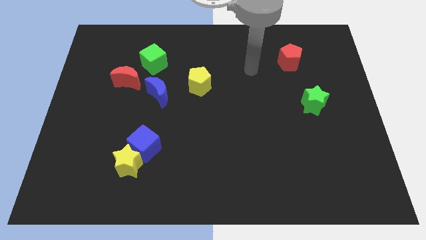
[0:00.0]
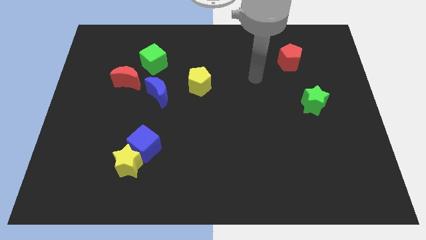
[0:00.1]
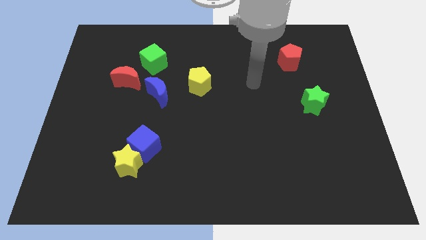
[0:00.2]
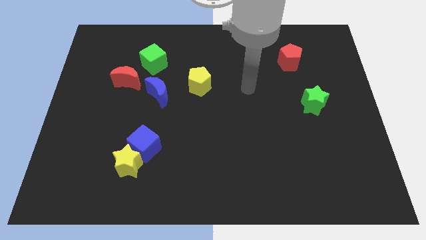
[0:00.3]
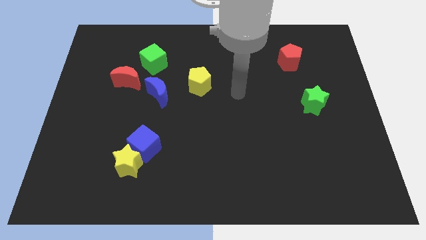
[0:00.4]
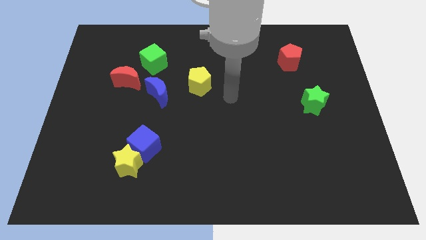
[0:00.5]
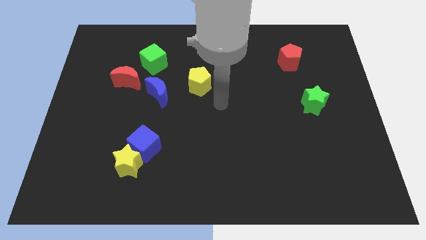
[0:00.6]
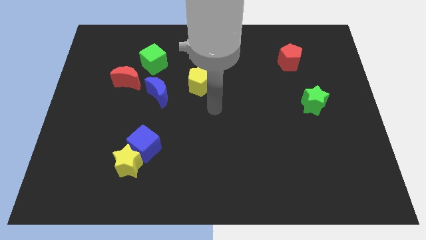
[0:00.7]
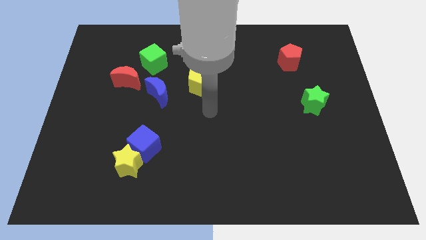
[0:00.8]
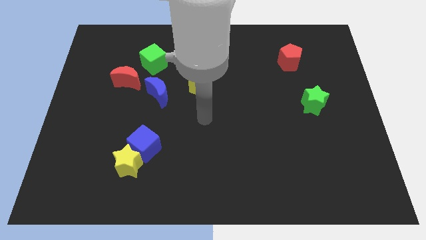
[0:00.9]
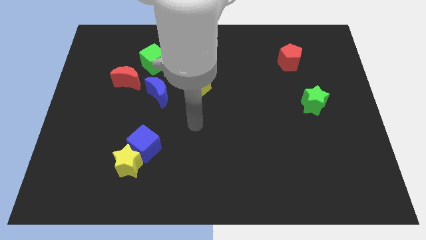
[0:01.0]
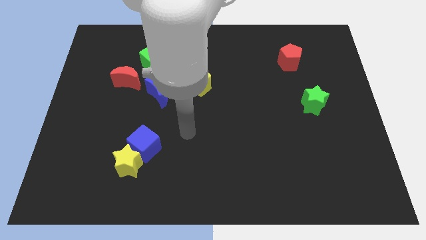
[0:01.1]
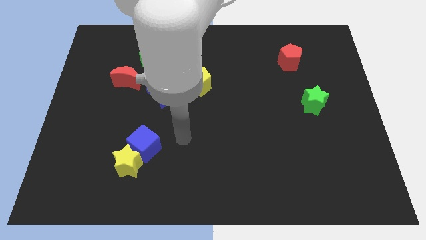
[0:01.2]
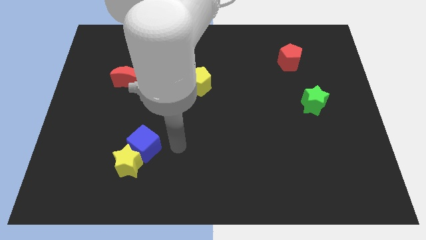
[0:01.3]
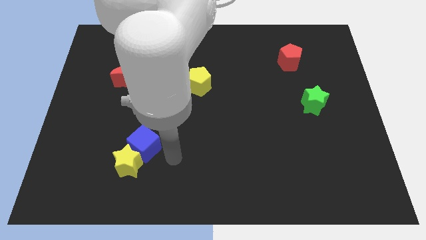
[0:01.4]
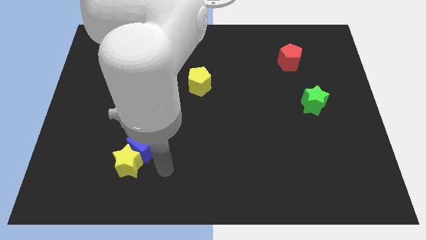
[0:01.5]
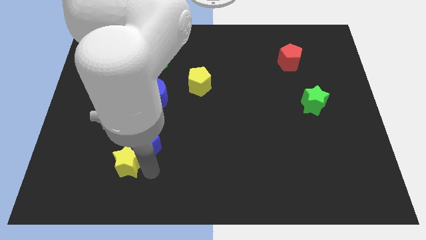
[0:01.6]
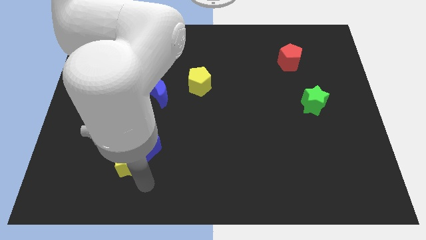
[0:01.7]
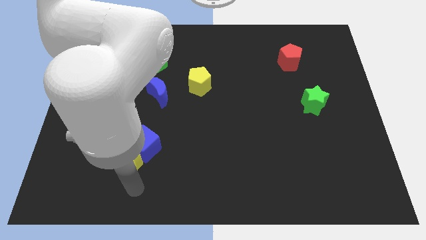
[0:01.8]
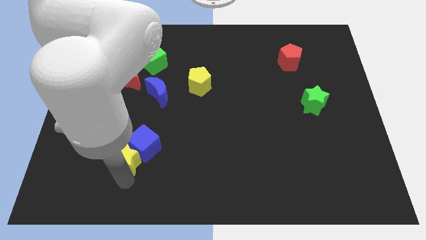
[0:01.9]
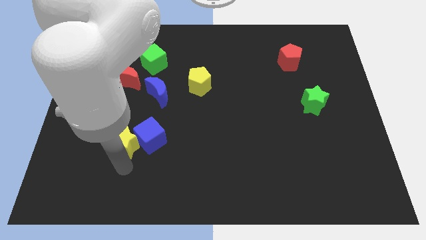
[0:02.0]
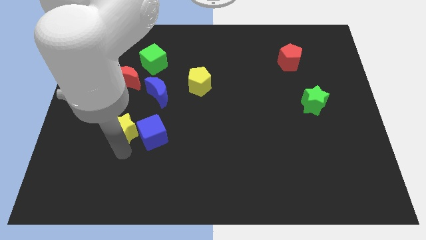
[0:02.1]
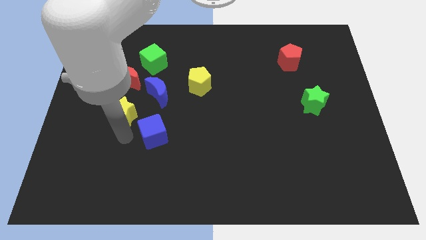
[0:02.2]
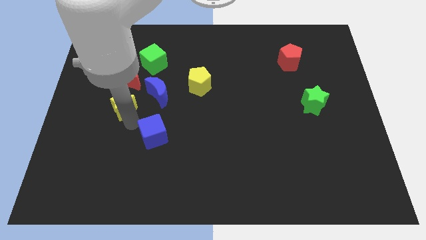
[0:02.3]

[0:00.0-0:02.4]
pull the blue cube apart from the yellow star

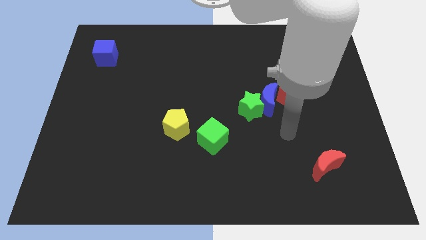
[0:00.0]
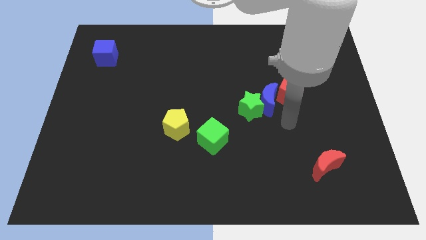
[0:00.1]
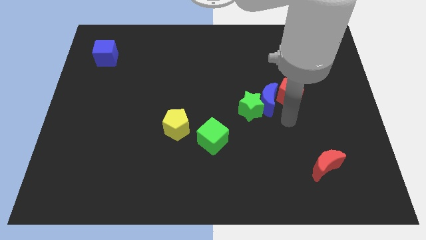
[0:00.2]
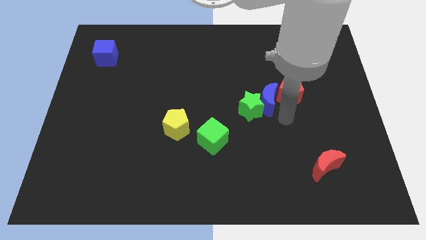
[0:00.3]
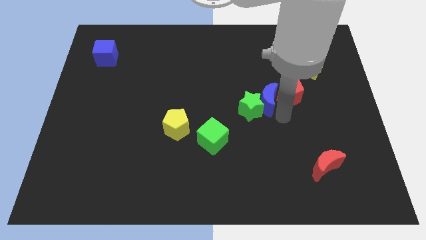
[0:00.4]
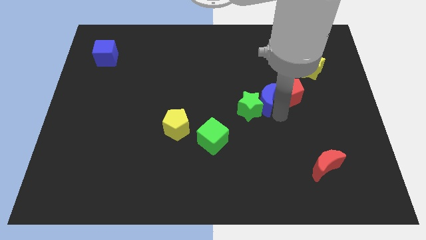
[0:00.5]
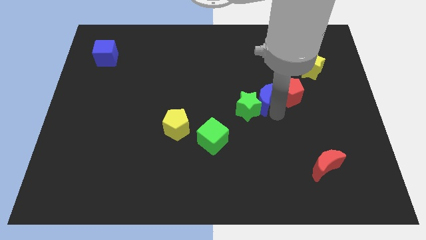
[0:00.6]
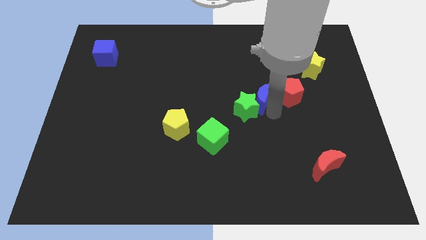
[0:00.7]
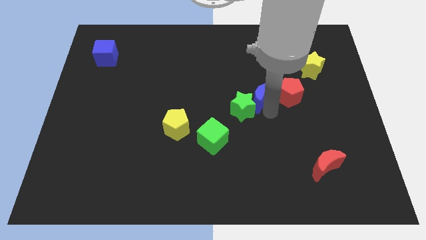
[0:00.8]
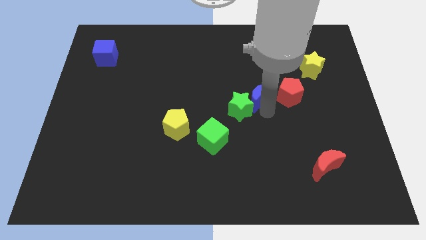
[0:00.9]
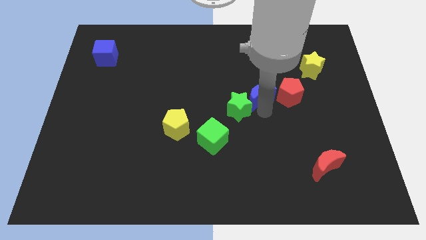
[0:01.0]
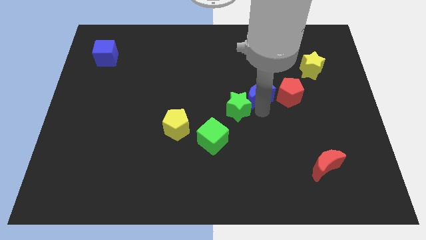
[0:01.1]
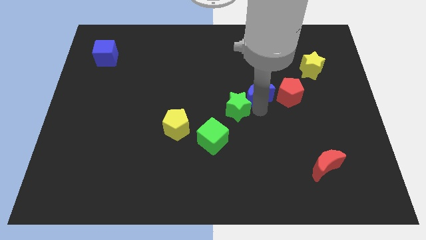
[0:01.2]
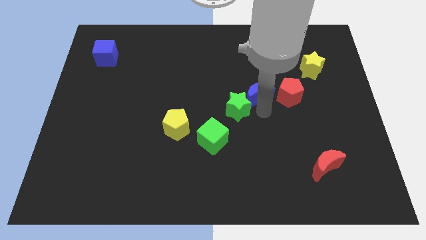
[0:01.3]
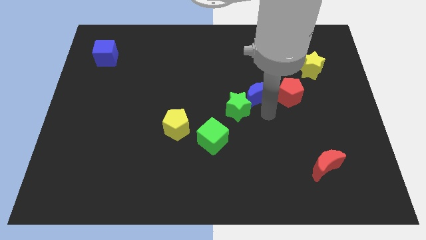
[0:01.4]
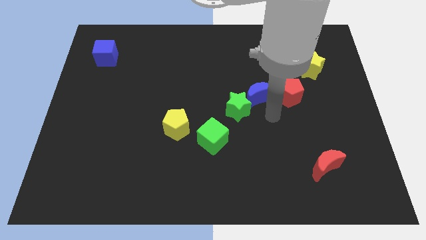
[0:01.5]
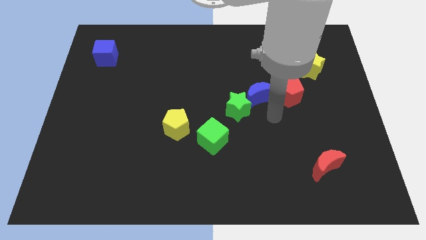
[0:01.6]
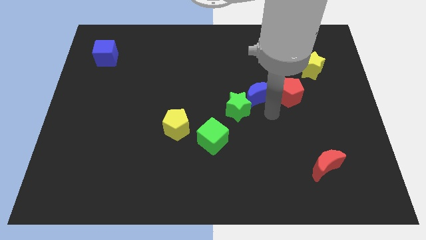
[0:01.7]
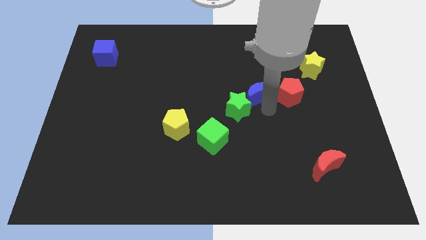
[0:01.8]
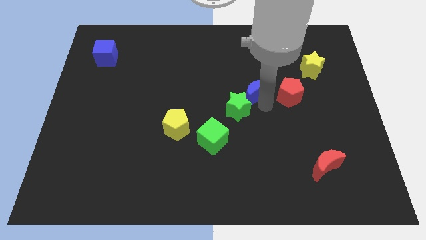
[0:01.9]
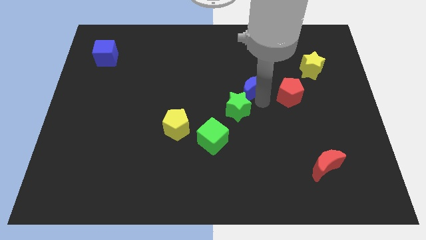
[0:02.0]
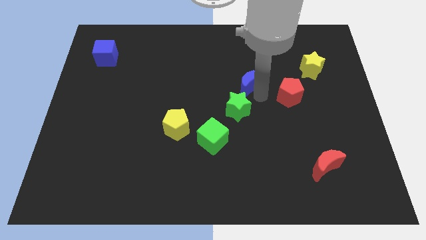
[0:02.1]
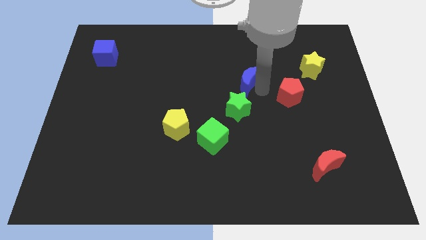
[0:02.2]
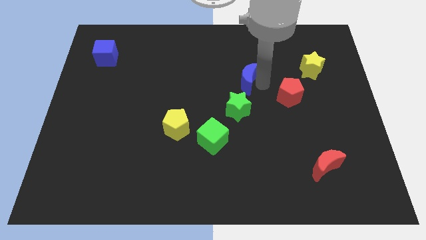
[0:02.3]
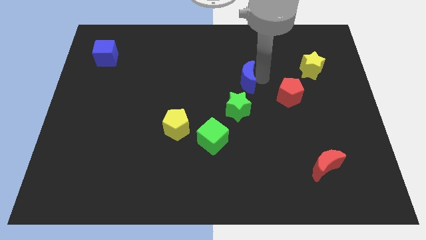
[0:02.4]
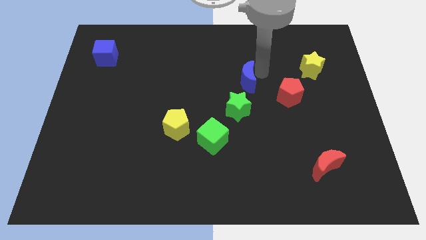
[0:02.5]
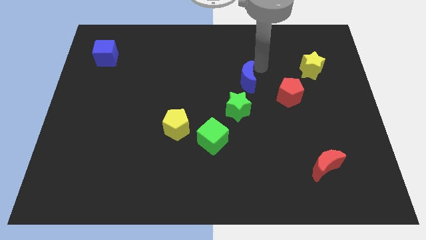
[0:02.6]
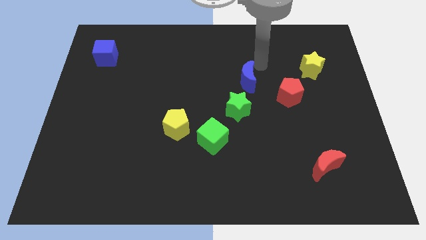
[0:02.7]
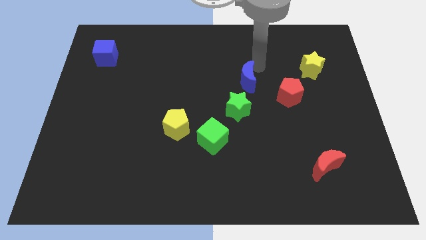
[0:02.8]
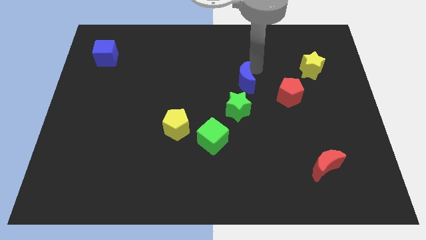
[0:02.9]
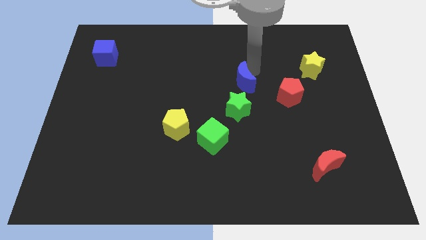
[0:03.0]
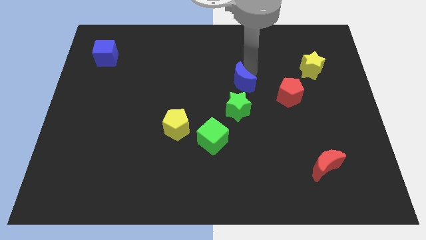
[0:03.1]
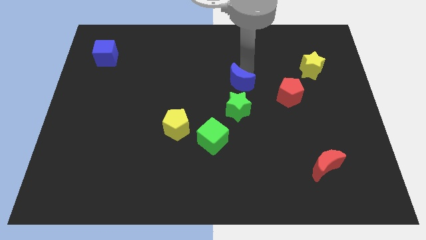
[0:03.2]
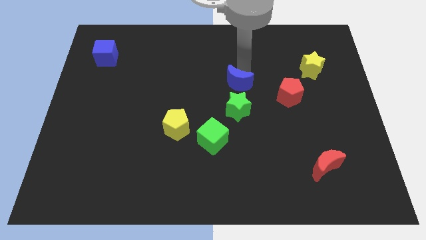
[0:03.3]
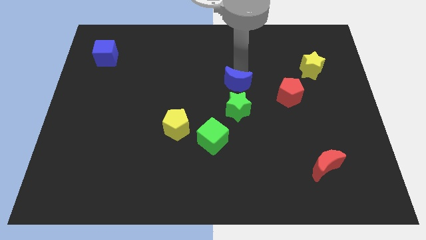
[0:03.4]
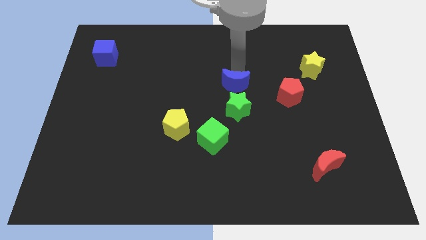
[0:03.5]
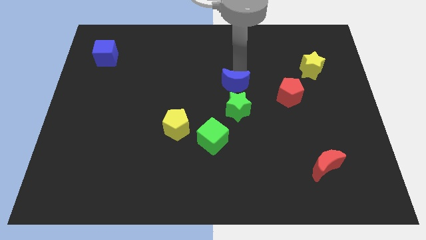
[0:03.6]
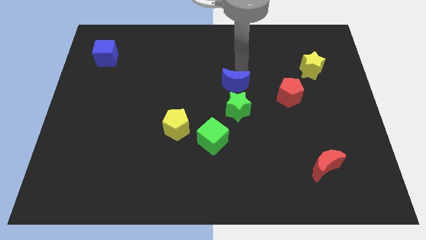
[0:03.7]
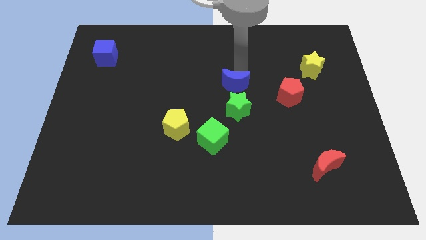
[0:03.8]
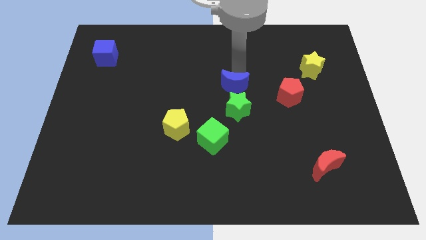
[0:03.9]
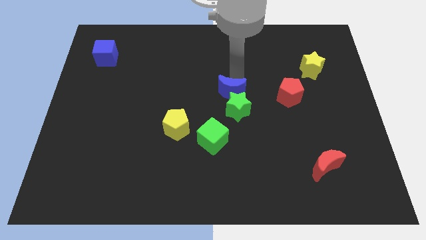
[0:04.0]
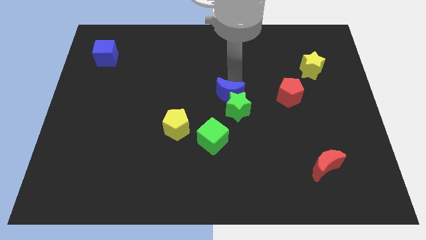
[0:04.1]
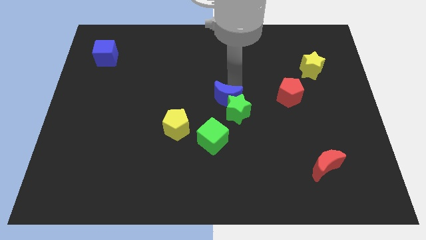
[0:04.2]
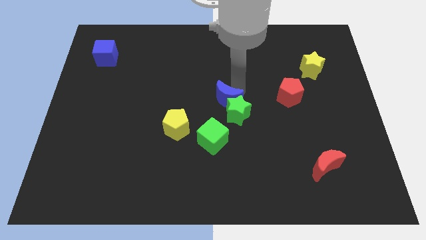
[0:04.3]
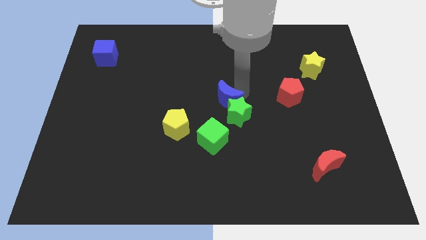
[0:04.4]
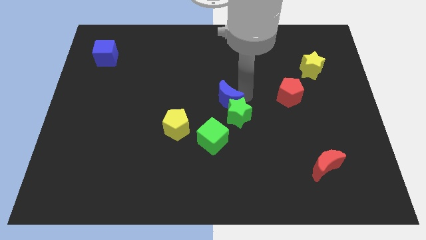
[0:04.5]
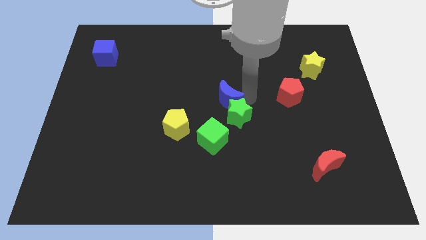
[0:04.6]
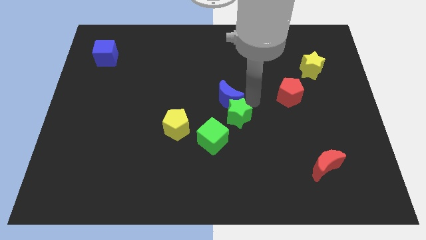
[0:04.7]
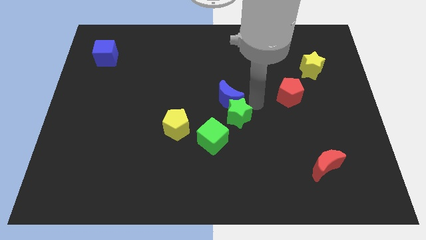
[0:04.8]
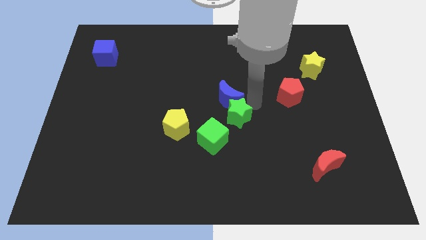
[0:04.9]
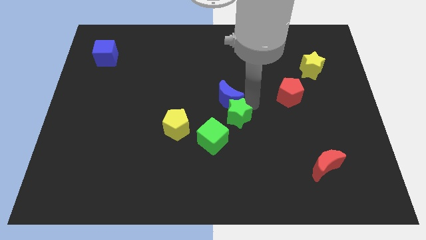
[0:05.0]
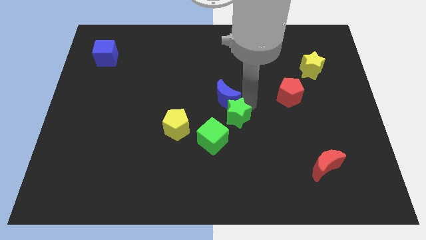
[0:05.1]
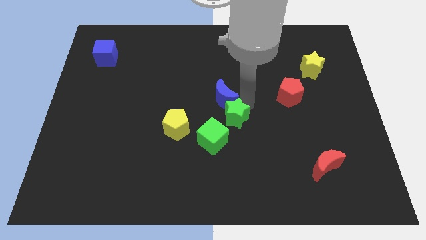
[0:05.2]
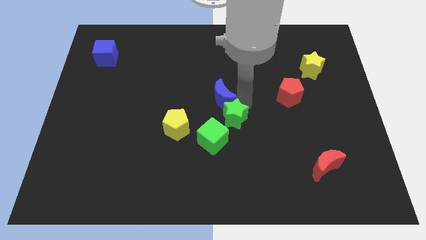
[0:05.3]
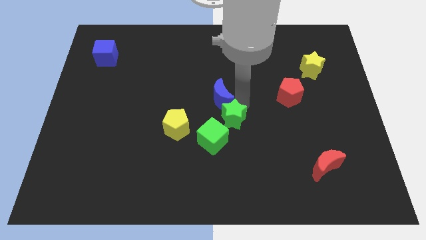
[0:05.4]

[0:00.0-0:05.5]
move the blue moon away from the green star and red pentagon

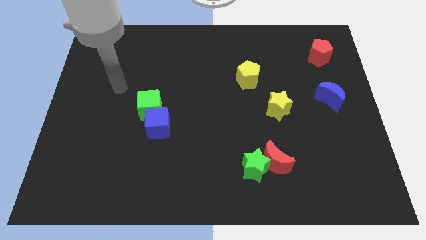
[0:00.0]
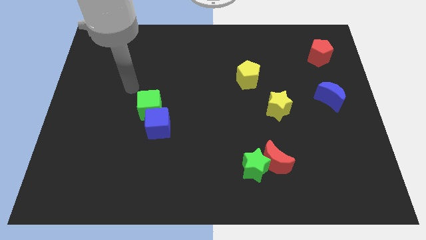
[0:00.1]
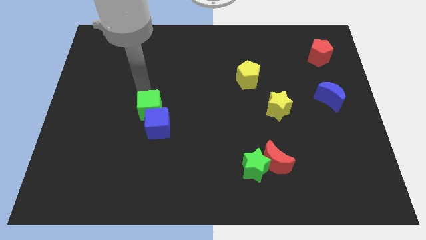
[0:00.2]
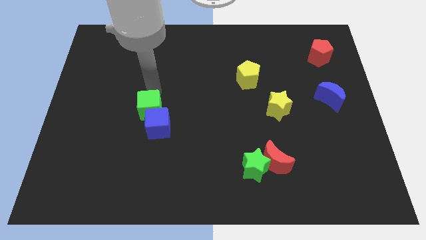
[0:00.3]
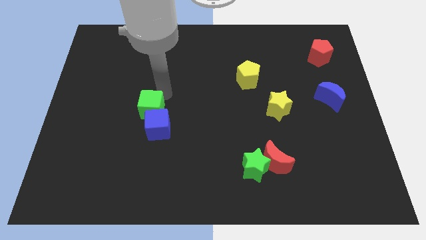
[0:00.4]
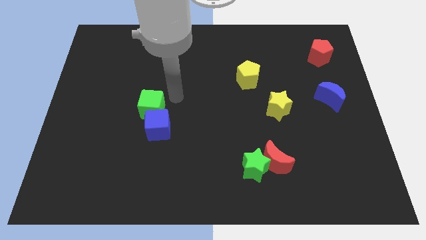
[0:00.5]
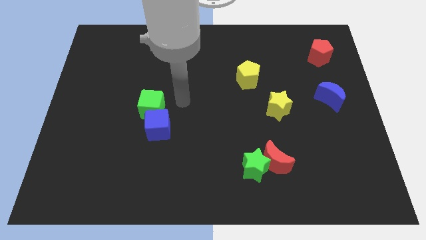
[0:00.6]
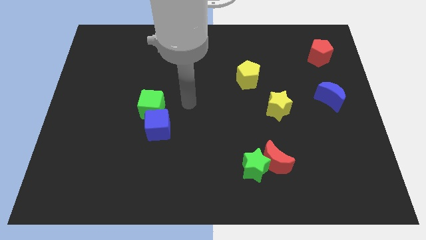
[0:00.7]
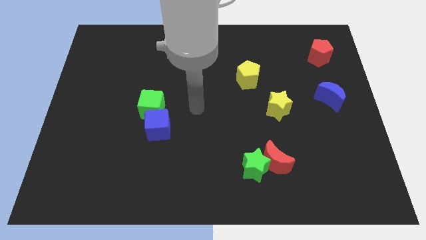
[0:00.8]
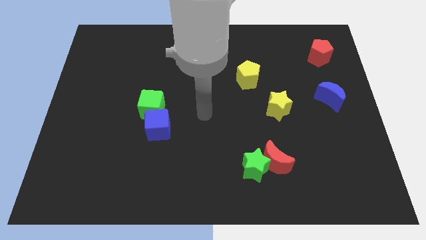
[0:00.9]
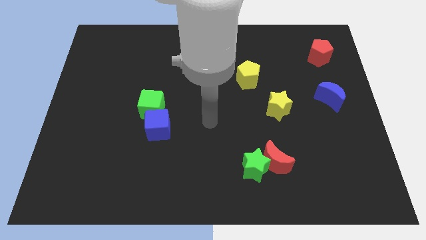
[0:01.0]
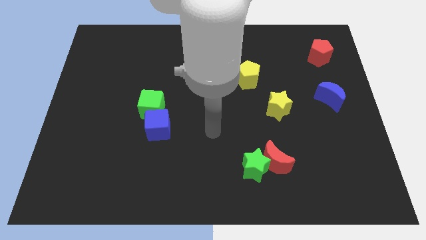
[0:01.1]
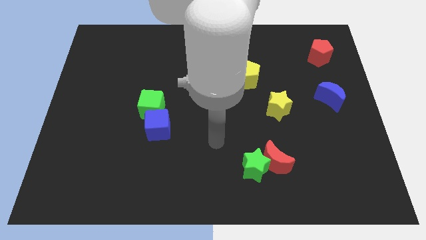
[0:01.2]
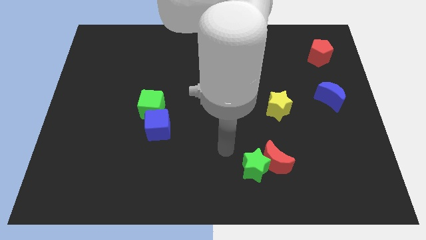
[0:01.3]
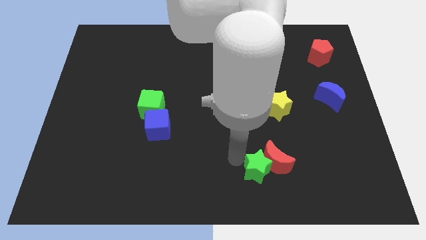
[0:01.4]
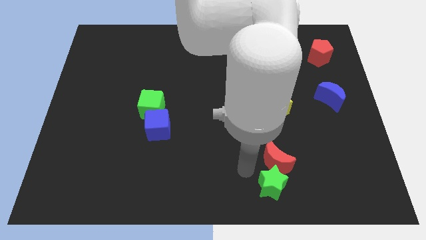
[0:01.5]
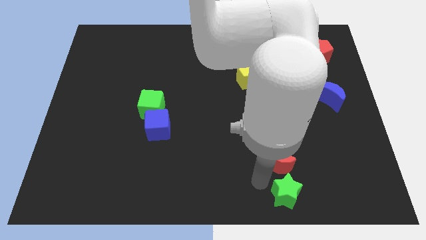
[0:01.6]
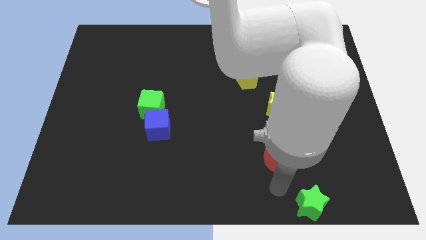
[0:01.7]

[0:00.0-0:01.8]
pull the red moon apart from the green star
